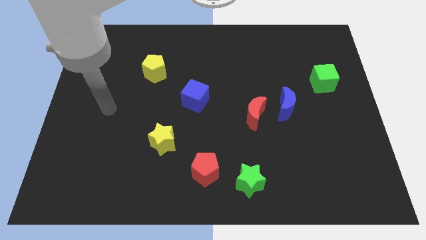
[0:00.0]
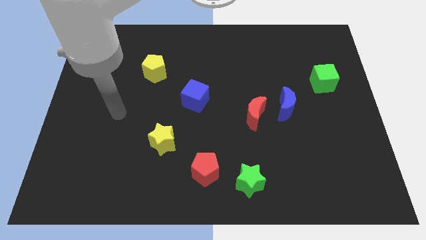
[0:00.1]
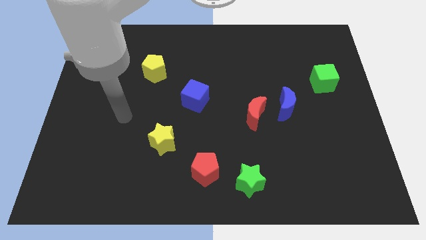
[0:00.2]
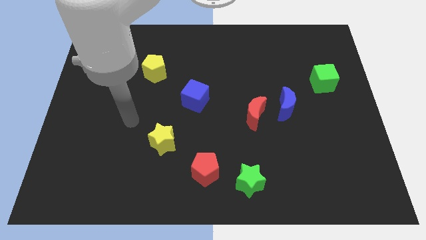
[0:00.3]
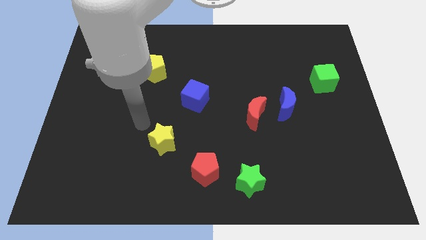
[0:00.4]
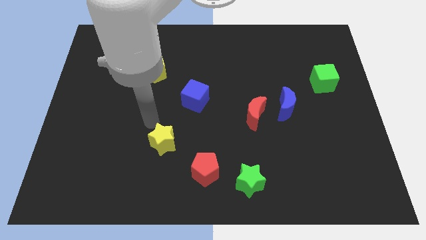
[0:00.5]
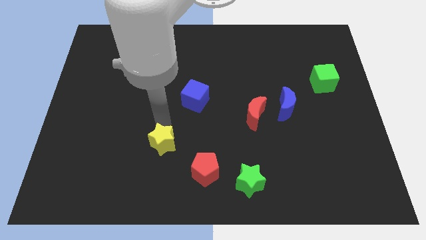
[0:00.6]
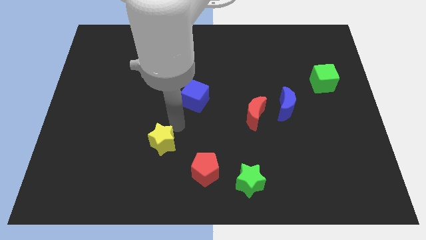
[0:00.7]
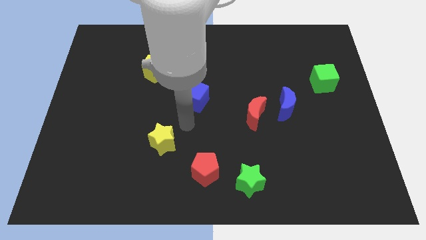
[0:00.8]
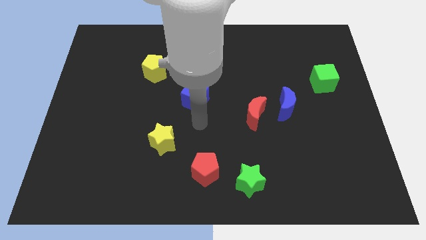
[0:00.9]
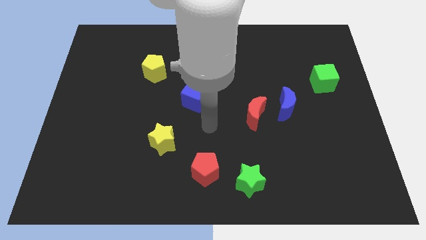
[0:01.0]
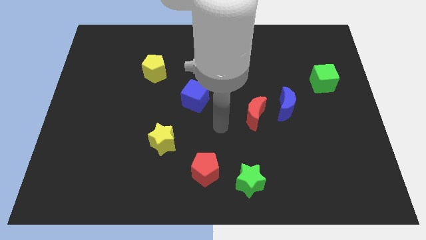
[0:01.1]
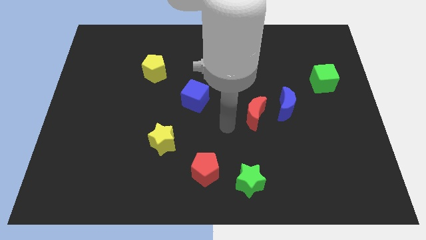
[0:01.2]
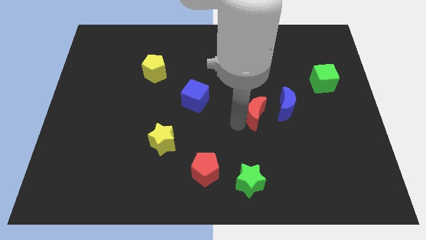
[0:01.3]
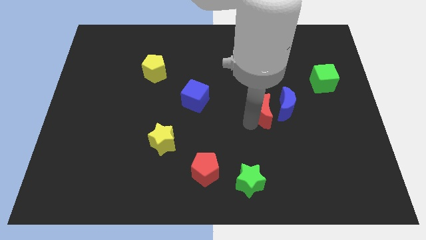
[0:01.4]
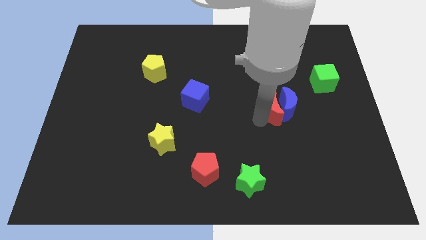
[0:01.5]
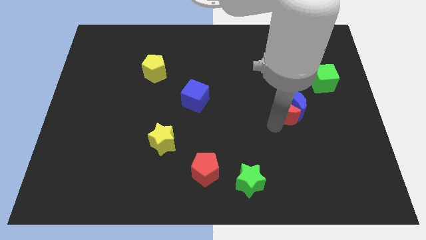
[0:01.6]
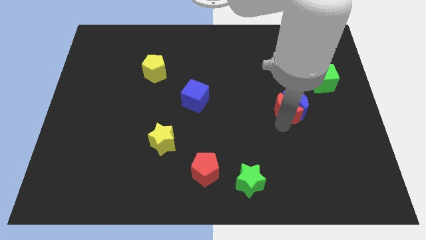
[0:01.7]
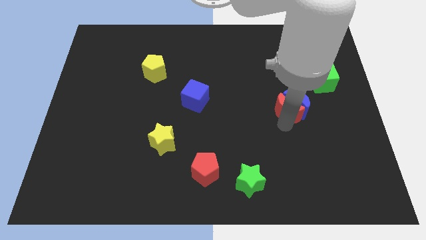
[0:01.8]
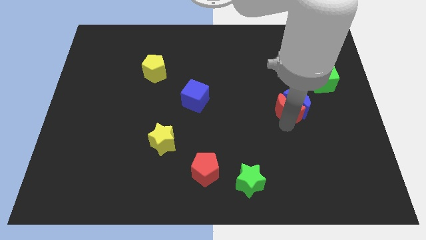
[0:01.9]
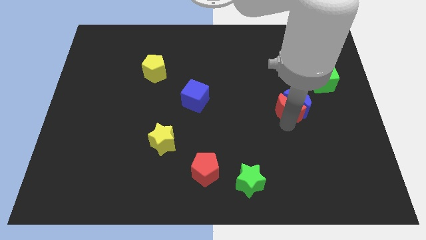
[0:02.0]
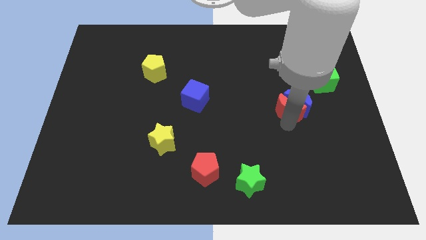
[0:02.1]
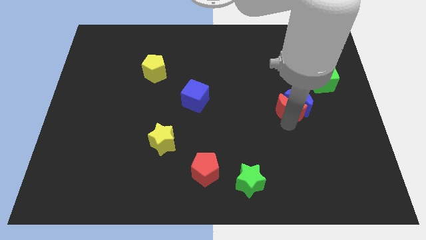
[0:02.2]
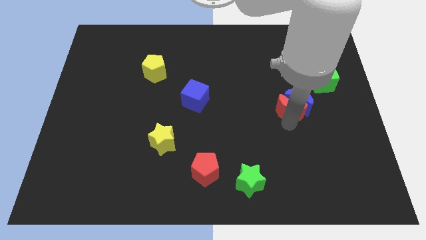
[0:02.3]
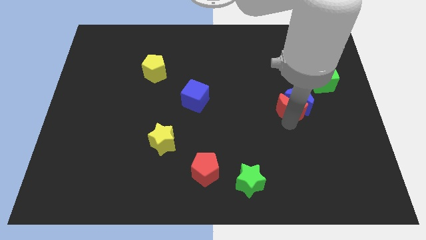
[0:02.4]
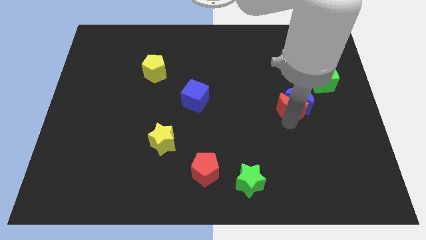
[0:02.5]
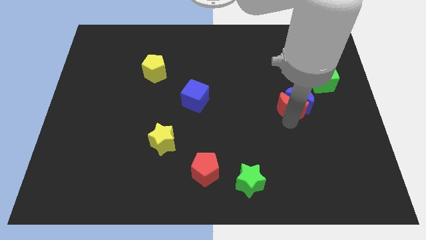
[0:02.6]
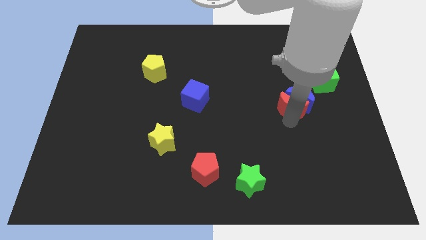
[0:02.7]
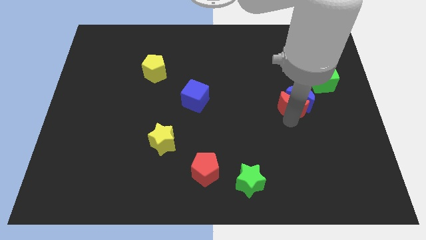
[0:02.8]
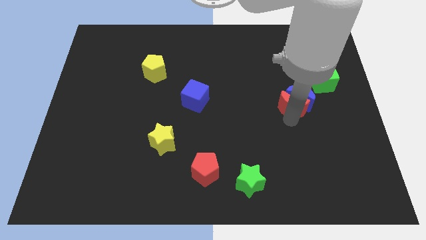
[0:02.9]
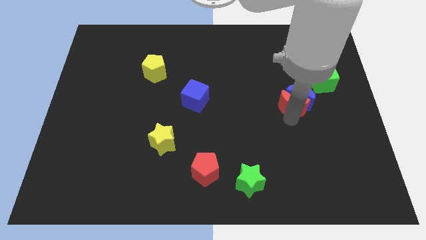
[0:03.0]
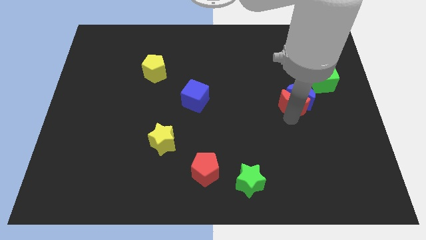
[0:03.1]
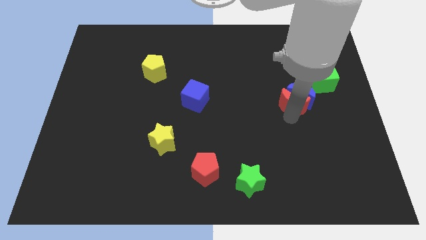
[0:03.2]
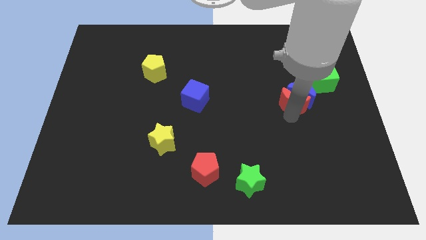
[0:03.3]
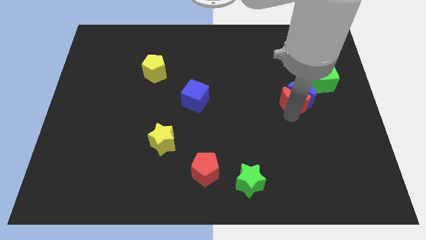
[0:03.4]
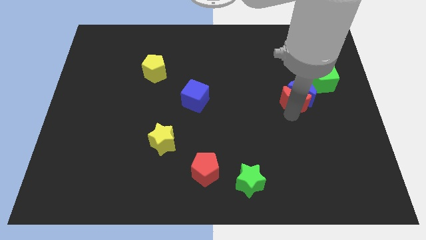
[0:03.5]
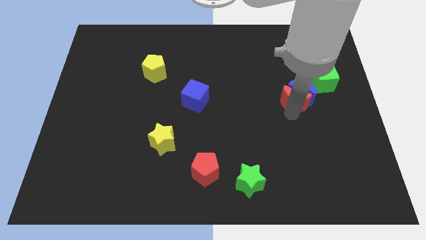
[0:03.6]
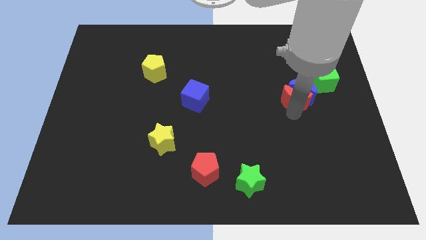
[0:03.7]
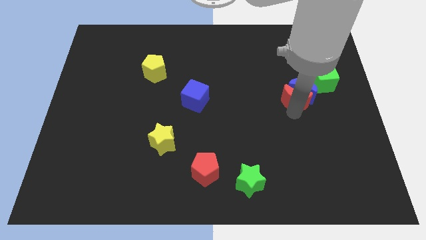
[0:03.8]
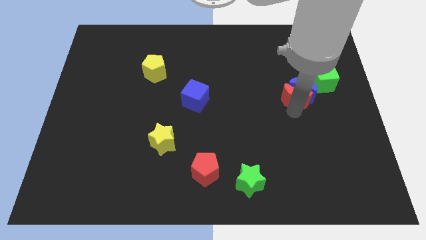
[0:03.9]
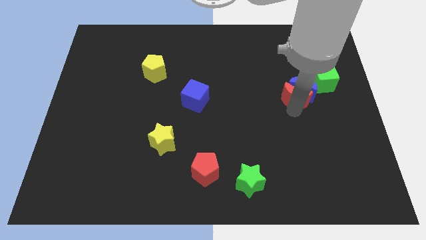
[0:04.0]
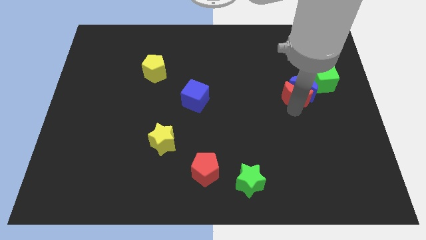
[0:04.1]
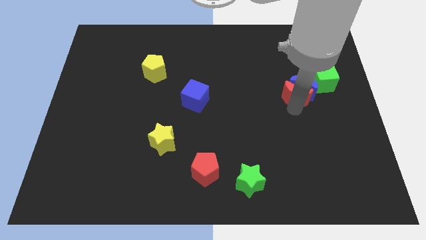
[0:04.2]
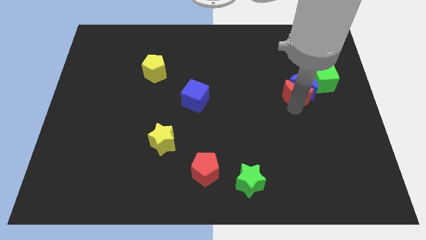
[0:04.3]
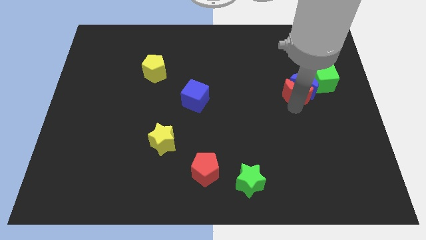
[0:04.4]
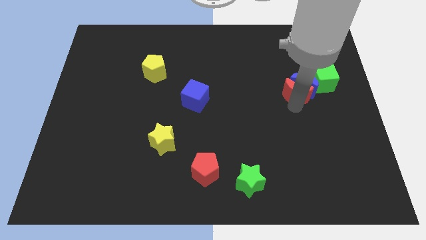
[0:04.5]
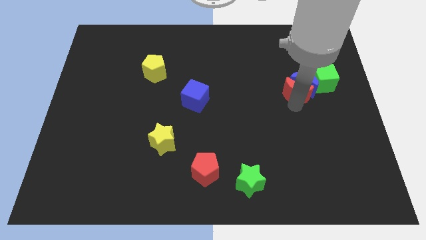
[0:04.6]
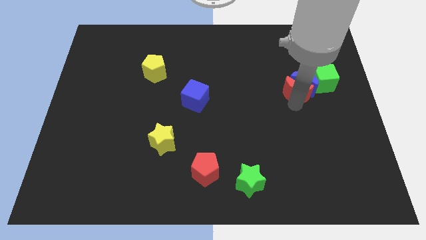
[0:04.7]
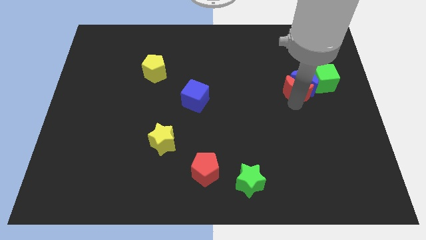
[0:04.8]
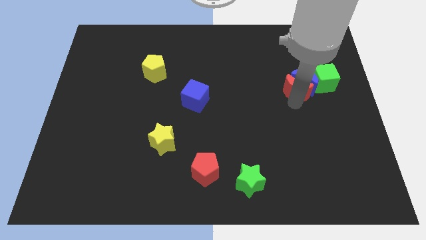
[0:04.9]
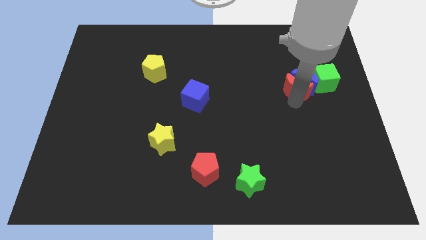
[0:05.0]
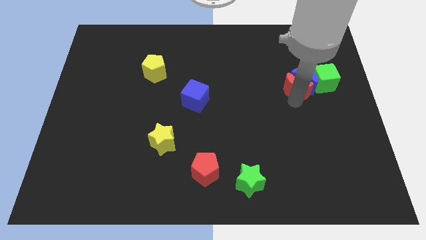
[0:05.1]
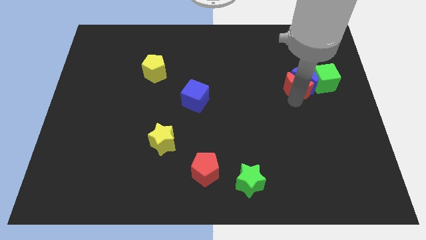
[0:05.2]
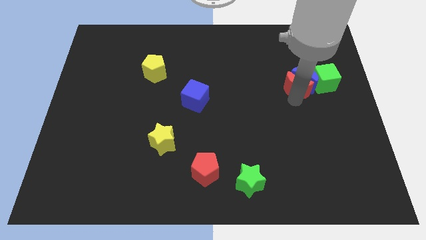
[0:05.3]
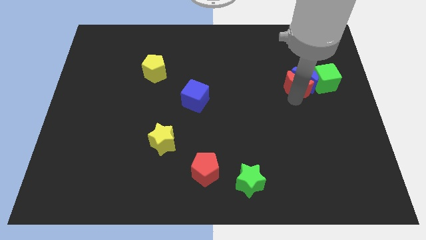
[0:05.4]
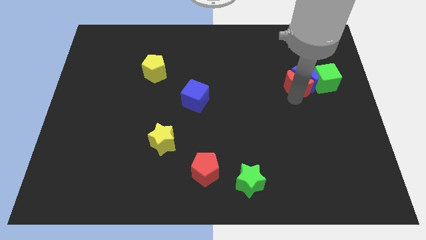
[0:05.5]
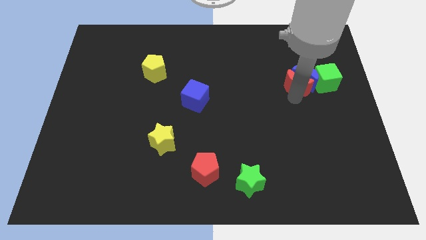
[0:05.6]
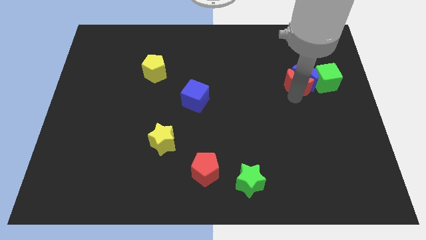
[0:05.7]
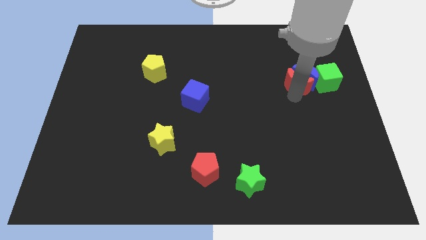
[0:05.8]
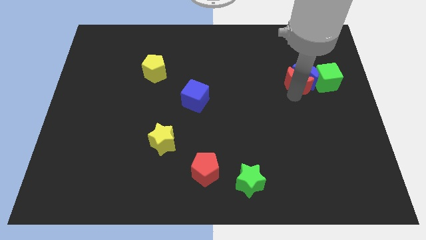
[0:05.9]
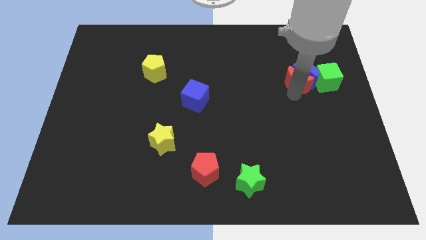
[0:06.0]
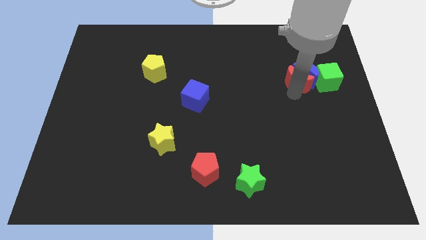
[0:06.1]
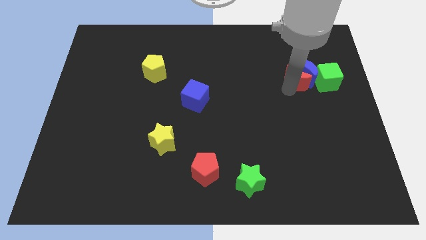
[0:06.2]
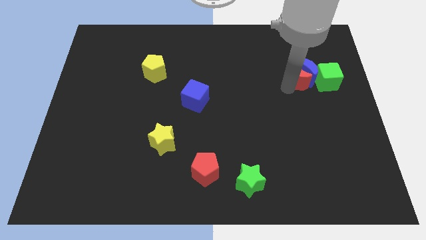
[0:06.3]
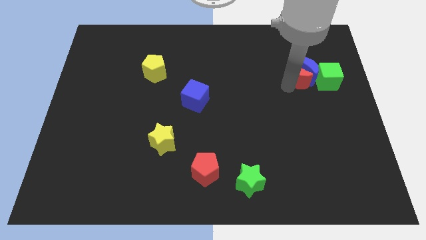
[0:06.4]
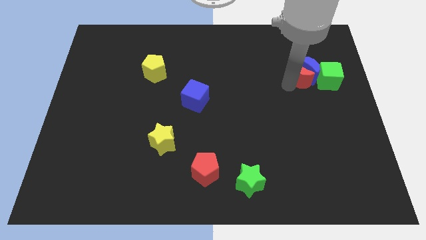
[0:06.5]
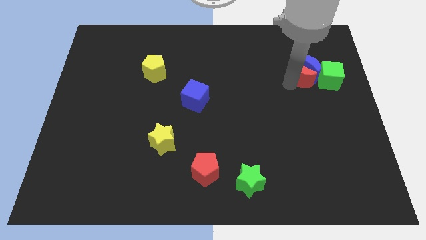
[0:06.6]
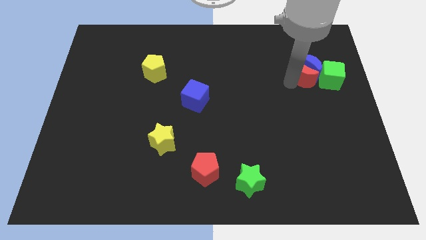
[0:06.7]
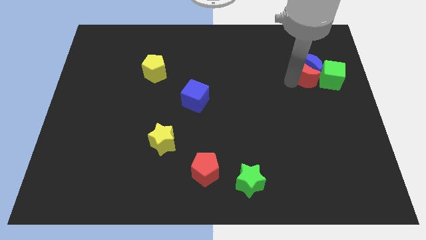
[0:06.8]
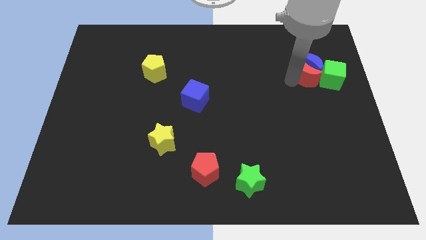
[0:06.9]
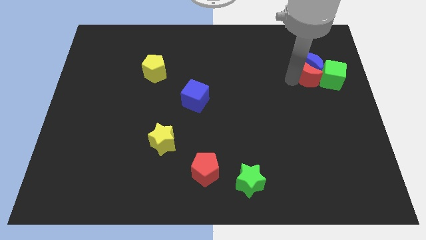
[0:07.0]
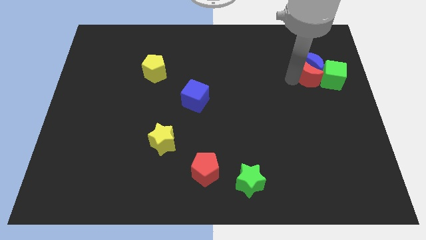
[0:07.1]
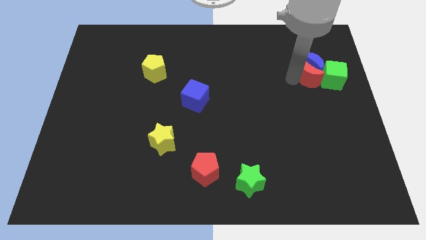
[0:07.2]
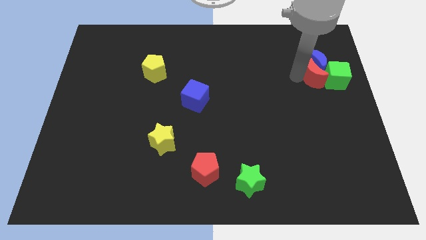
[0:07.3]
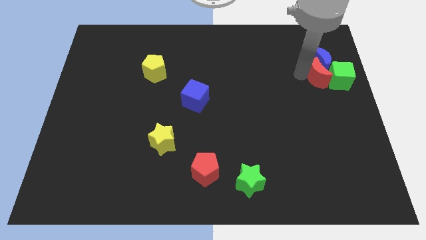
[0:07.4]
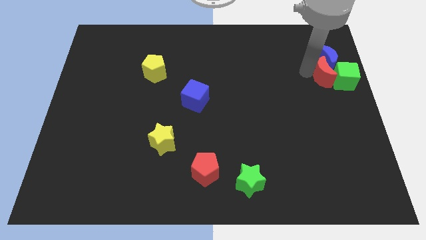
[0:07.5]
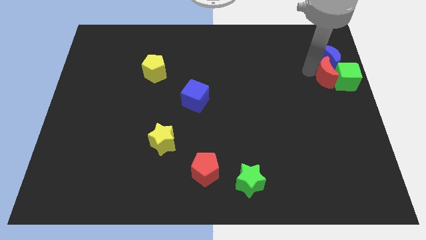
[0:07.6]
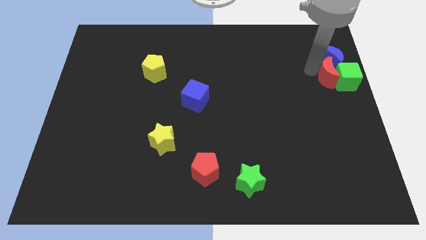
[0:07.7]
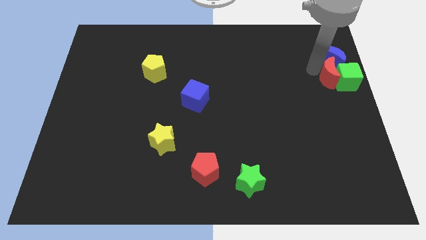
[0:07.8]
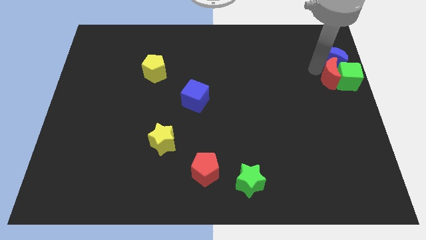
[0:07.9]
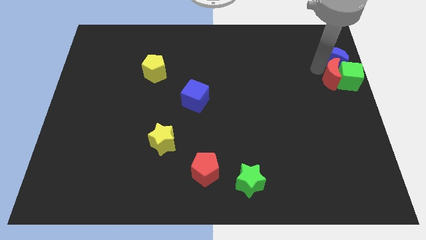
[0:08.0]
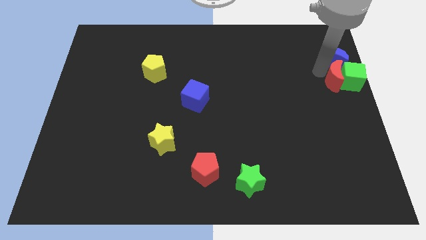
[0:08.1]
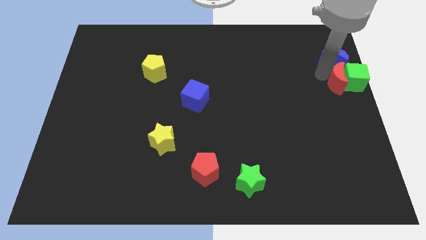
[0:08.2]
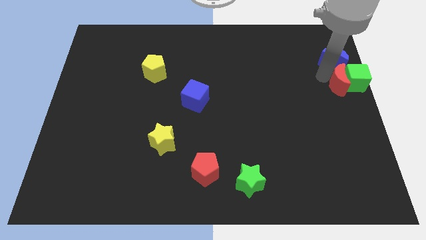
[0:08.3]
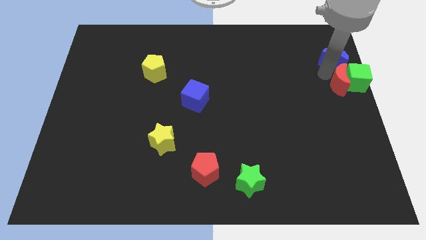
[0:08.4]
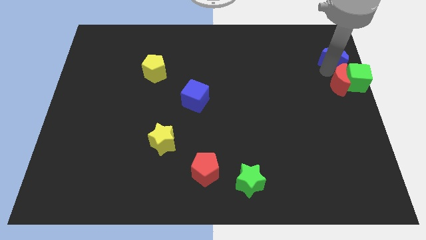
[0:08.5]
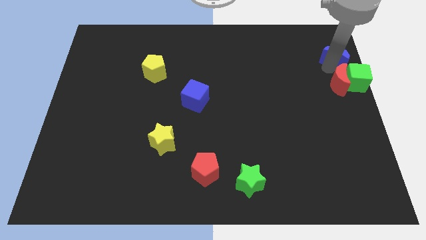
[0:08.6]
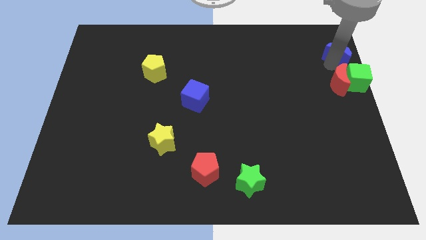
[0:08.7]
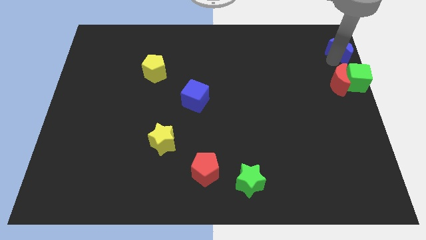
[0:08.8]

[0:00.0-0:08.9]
move the blue moon to the top right corner
